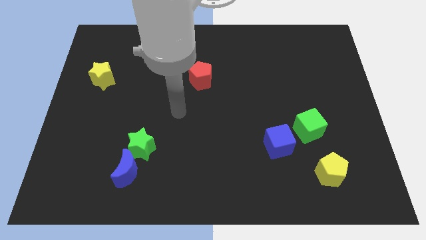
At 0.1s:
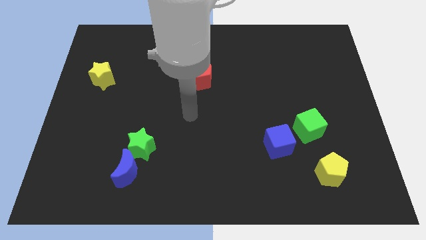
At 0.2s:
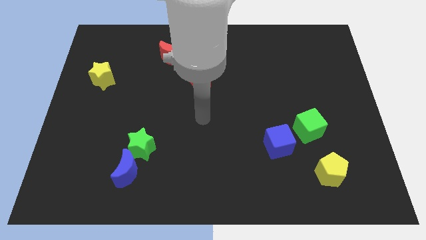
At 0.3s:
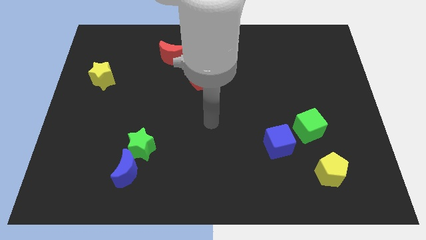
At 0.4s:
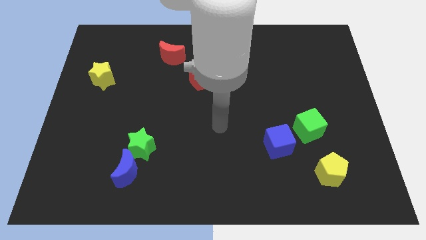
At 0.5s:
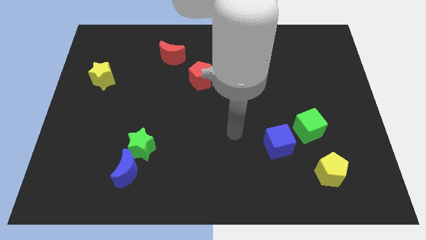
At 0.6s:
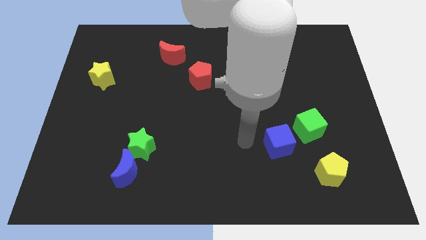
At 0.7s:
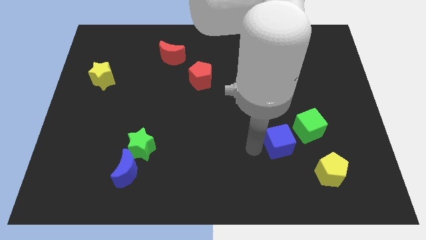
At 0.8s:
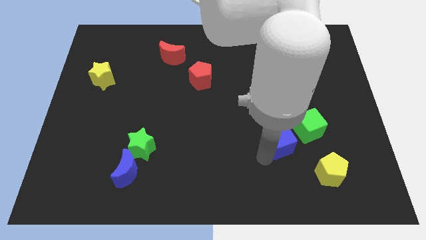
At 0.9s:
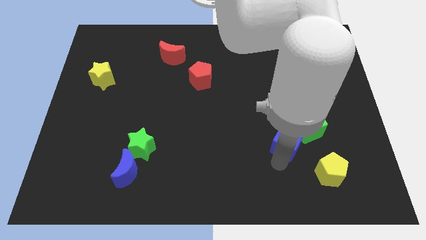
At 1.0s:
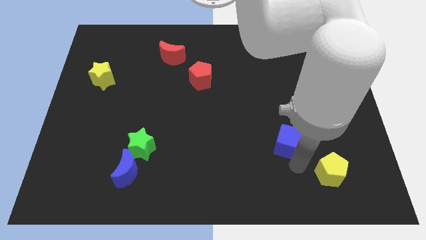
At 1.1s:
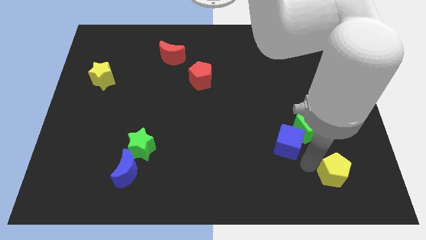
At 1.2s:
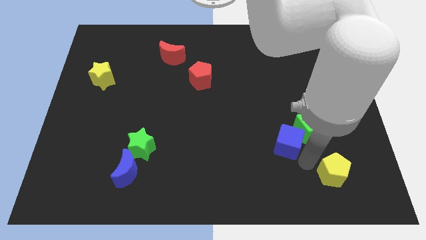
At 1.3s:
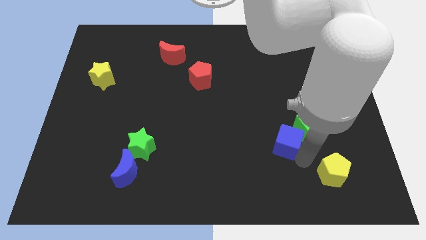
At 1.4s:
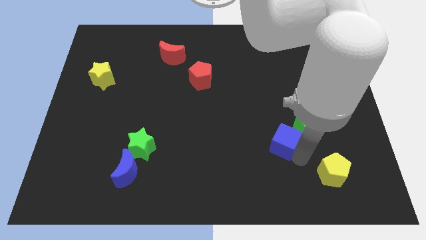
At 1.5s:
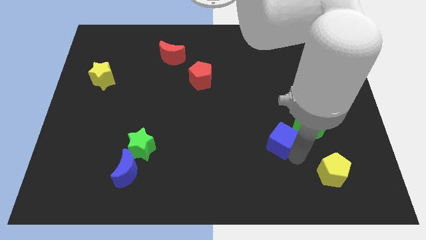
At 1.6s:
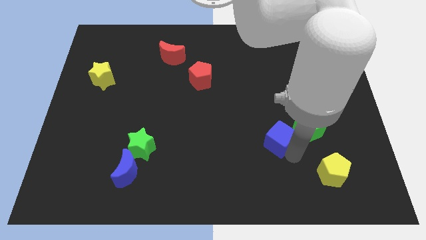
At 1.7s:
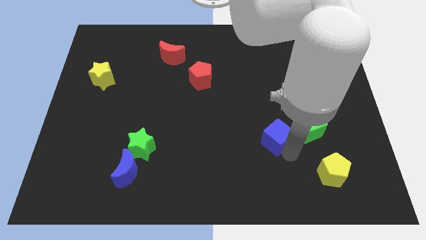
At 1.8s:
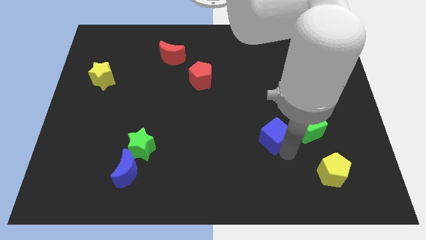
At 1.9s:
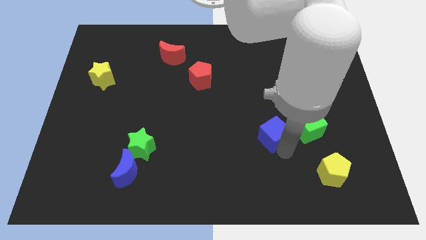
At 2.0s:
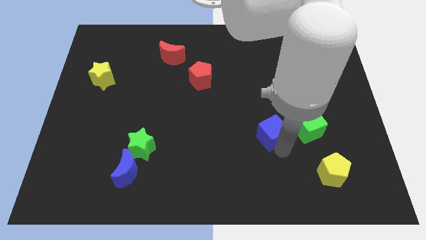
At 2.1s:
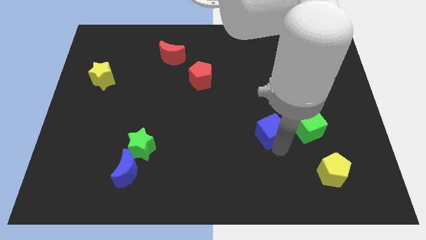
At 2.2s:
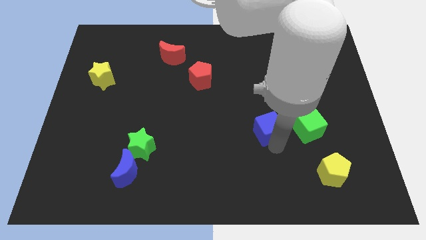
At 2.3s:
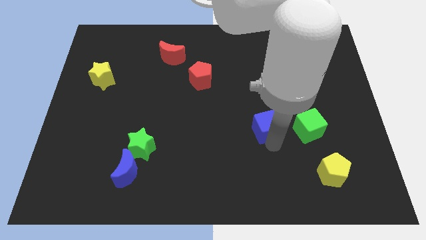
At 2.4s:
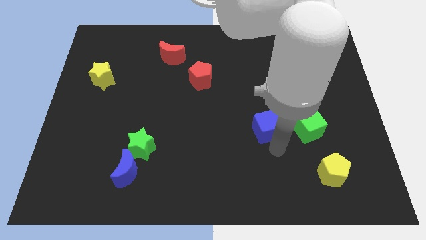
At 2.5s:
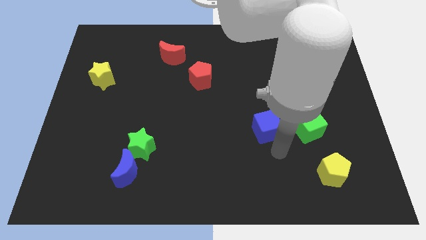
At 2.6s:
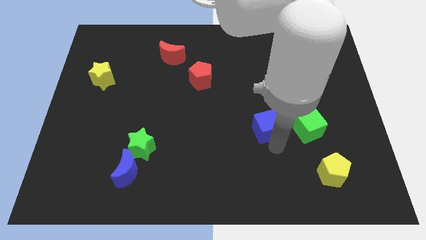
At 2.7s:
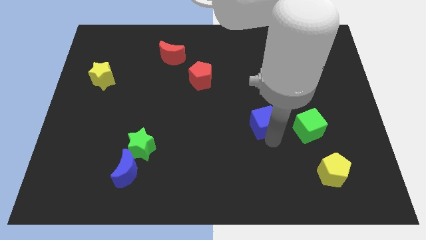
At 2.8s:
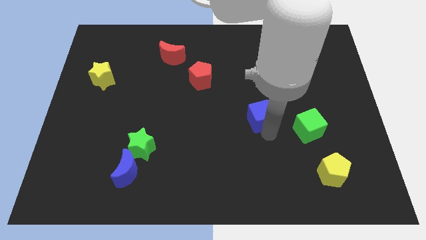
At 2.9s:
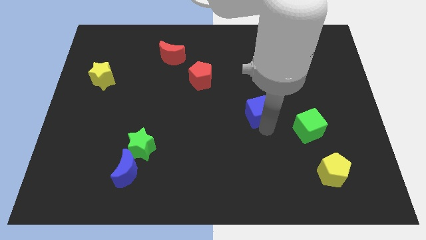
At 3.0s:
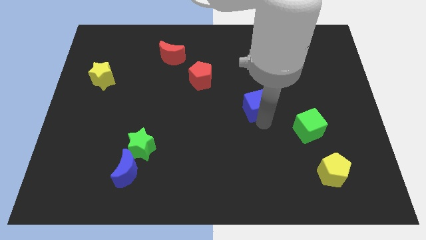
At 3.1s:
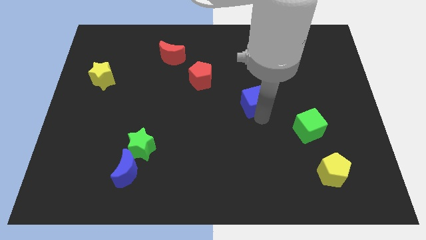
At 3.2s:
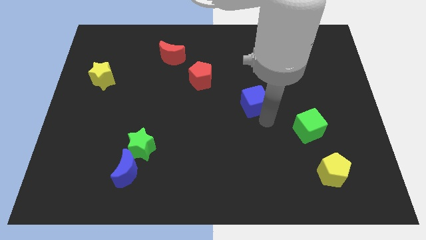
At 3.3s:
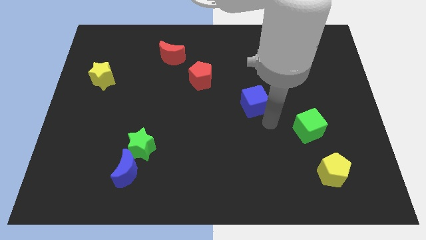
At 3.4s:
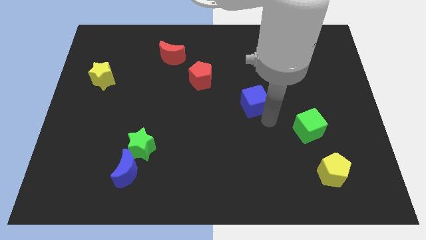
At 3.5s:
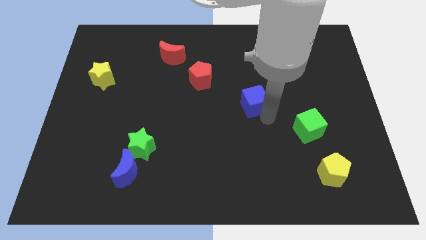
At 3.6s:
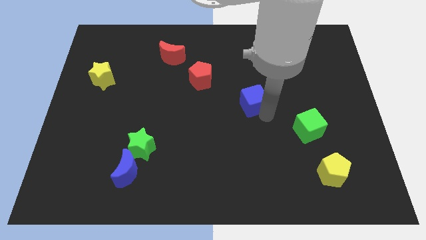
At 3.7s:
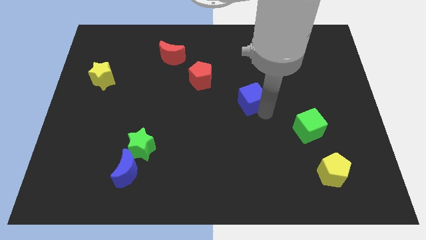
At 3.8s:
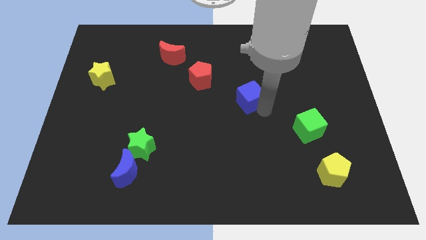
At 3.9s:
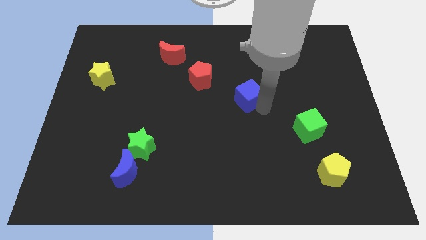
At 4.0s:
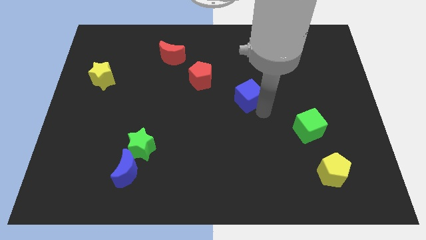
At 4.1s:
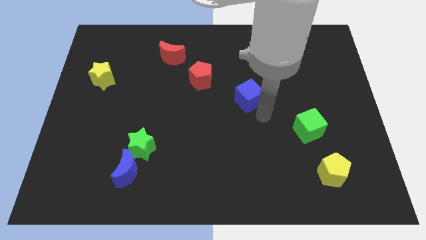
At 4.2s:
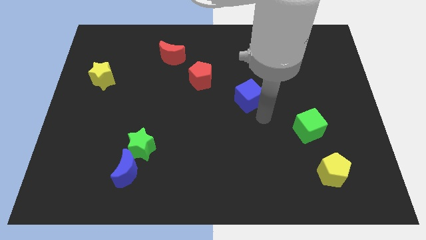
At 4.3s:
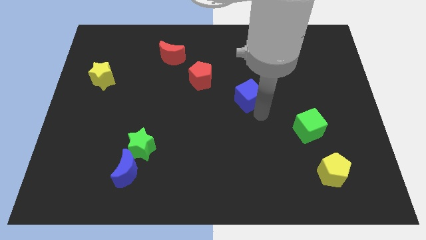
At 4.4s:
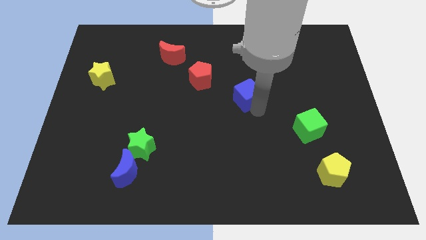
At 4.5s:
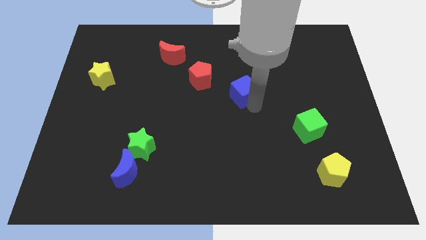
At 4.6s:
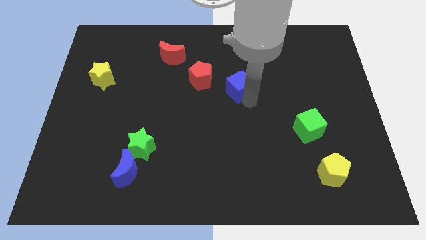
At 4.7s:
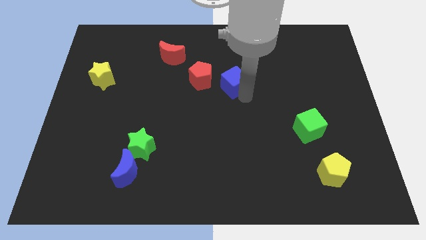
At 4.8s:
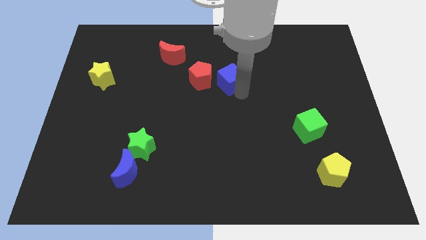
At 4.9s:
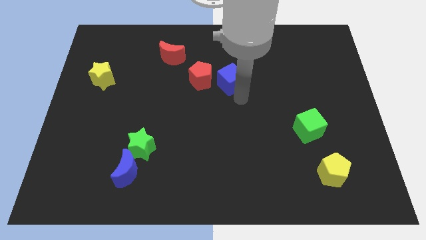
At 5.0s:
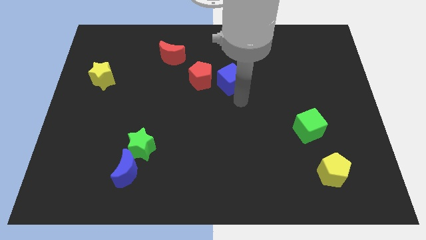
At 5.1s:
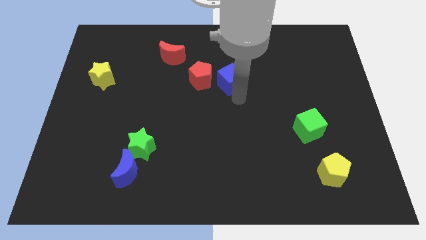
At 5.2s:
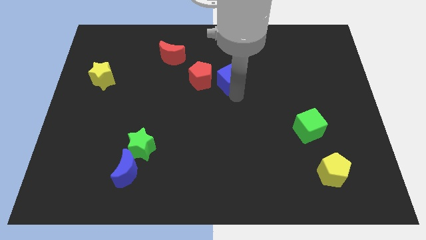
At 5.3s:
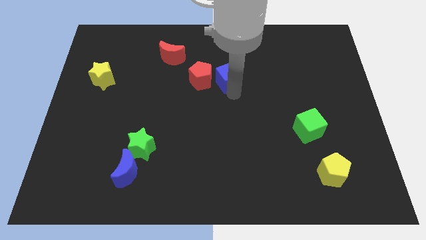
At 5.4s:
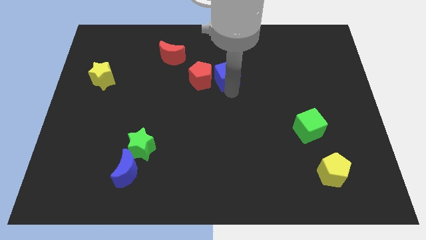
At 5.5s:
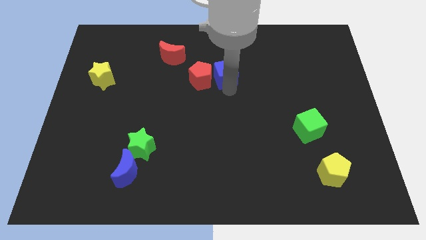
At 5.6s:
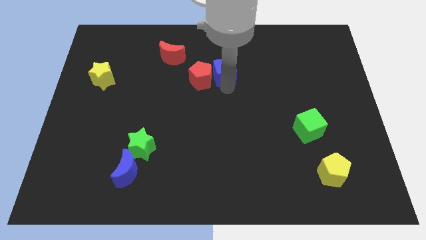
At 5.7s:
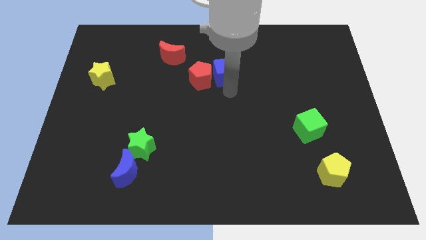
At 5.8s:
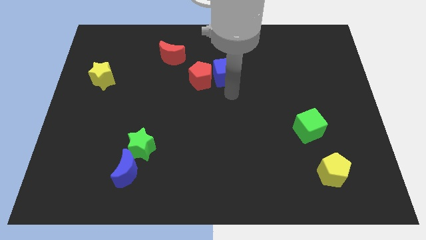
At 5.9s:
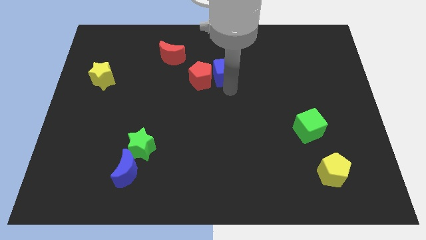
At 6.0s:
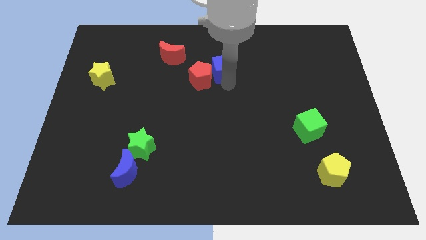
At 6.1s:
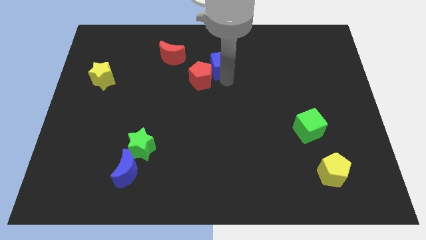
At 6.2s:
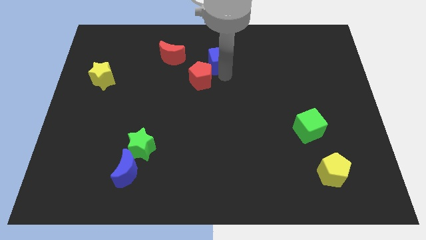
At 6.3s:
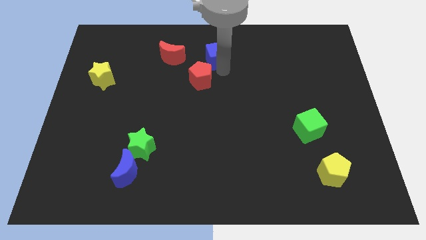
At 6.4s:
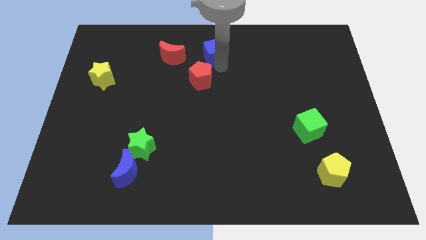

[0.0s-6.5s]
put the blue cube to the top side
